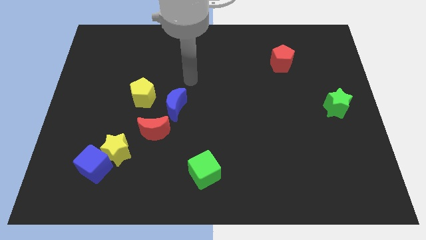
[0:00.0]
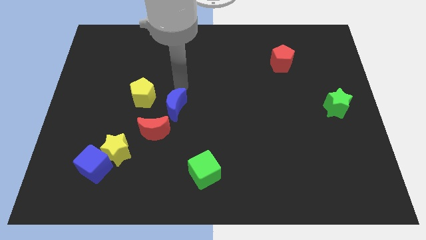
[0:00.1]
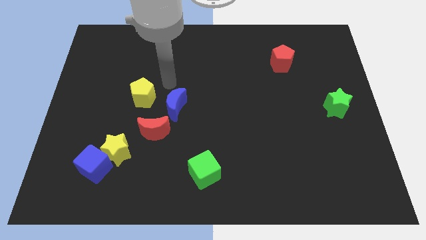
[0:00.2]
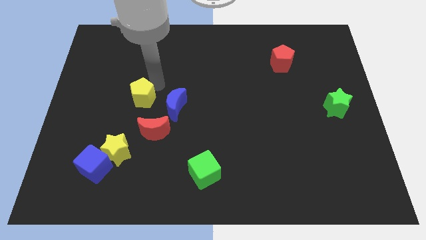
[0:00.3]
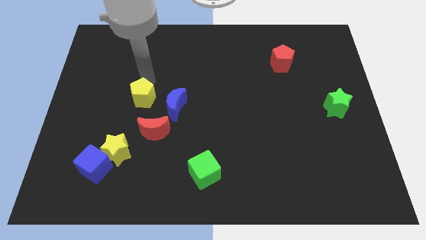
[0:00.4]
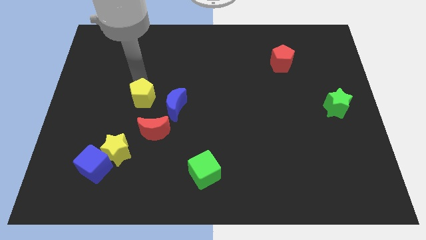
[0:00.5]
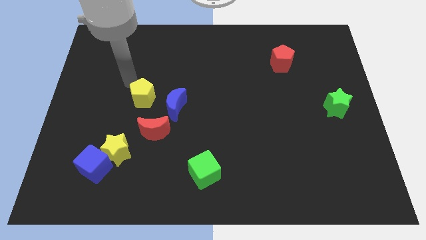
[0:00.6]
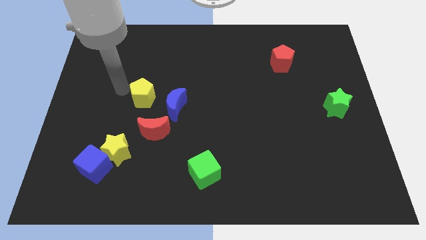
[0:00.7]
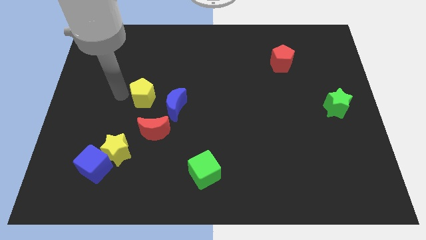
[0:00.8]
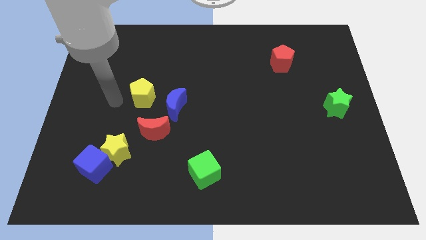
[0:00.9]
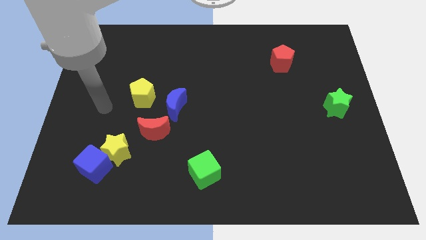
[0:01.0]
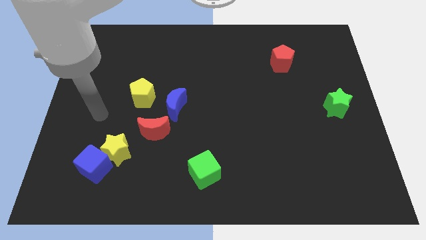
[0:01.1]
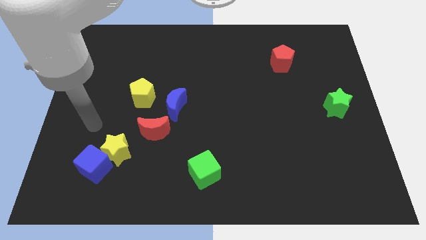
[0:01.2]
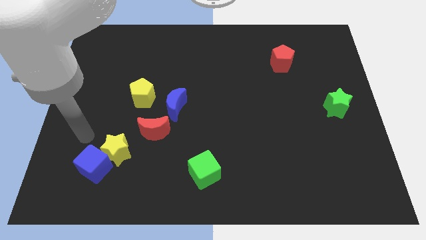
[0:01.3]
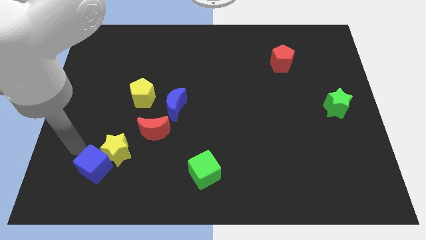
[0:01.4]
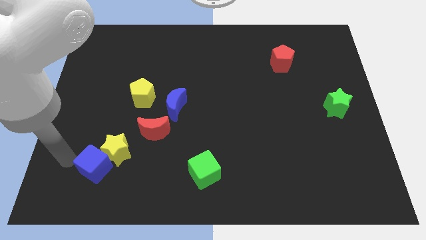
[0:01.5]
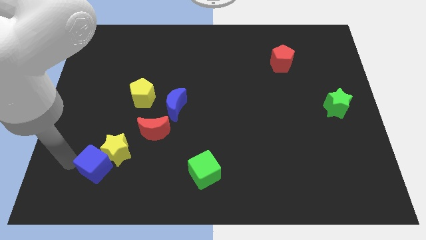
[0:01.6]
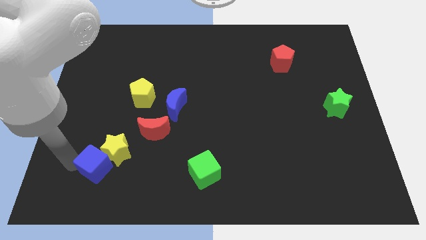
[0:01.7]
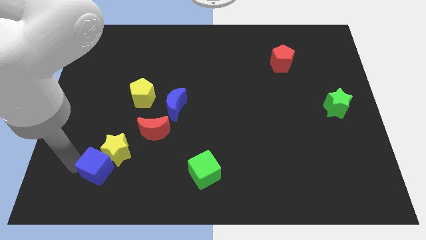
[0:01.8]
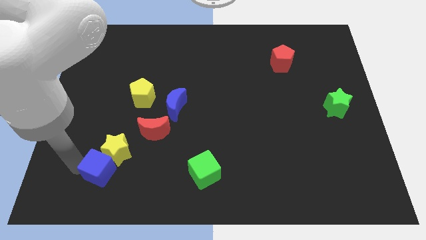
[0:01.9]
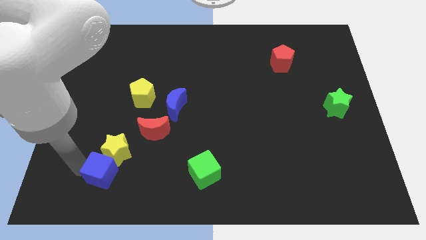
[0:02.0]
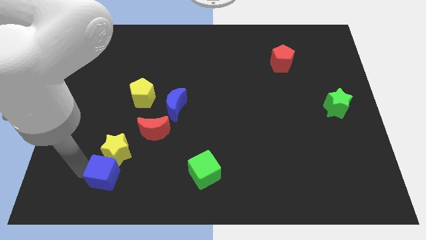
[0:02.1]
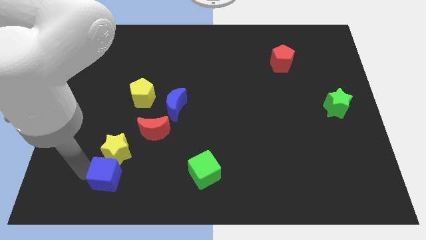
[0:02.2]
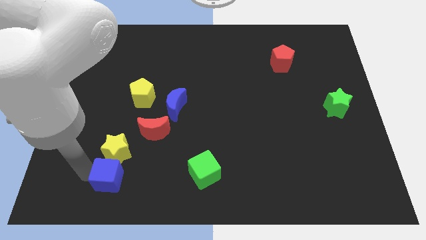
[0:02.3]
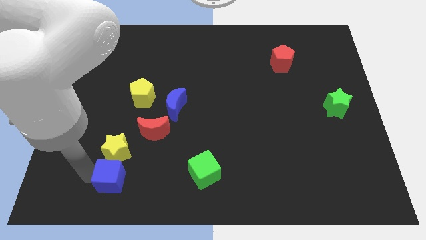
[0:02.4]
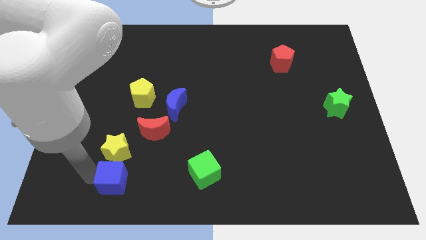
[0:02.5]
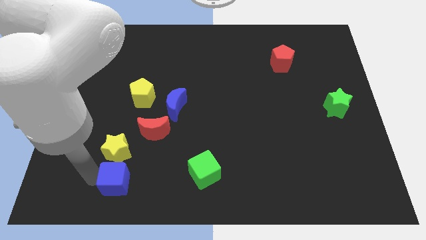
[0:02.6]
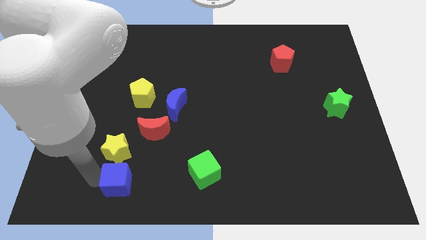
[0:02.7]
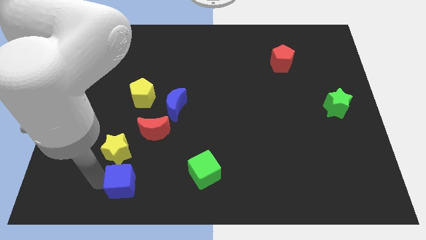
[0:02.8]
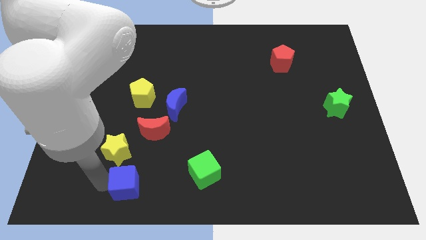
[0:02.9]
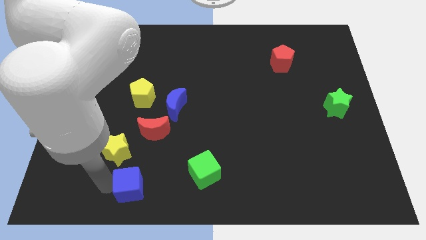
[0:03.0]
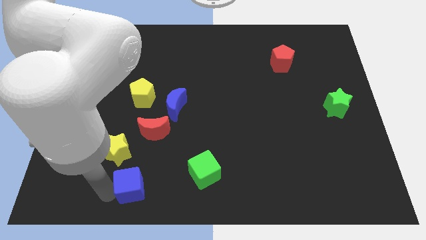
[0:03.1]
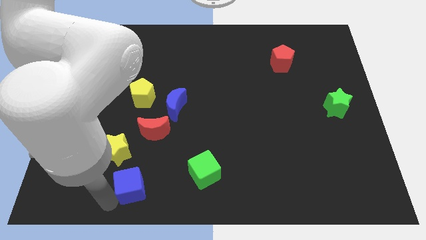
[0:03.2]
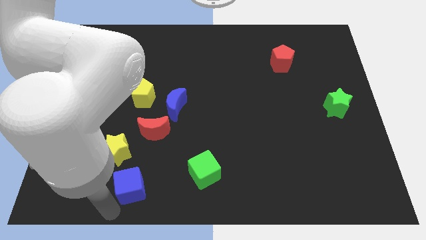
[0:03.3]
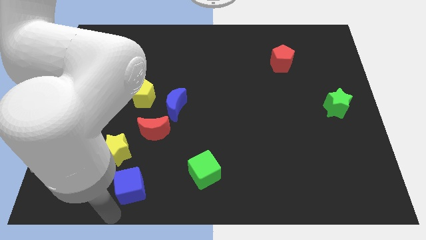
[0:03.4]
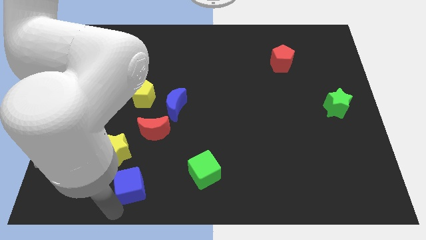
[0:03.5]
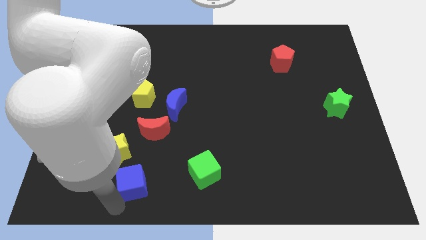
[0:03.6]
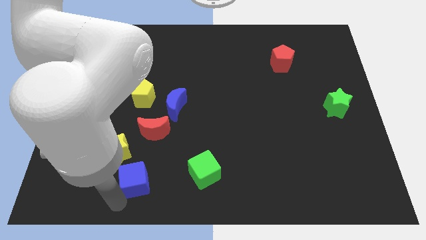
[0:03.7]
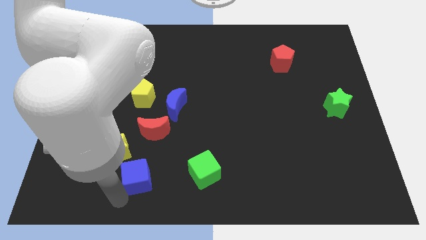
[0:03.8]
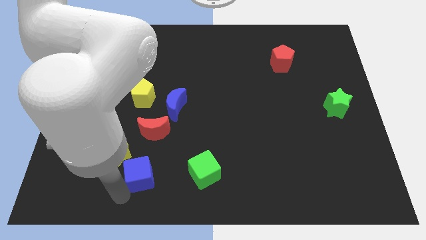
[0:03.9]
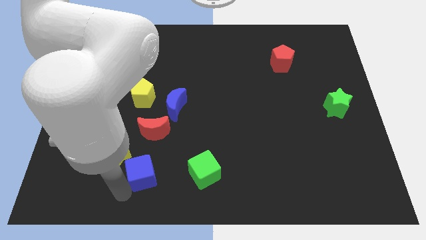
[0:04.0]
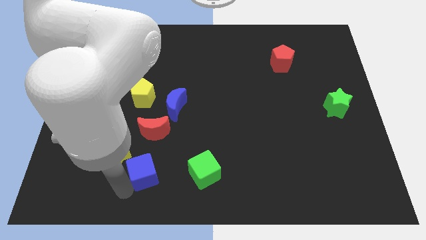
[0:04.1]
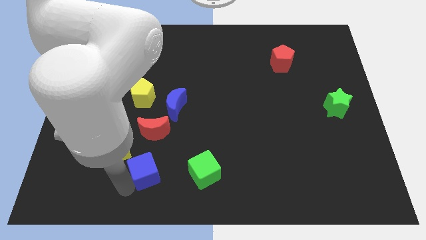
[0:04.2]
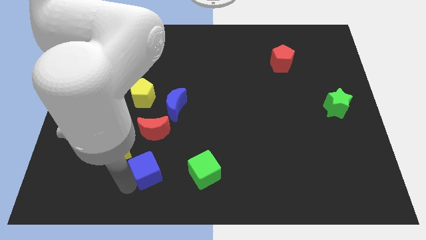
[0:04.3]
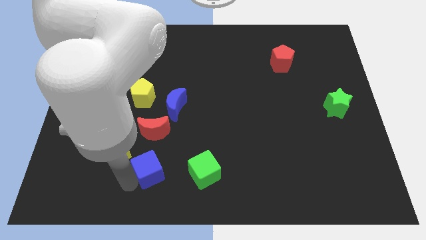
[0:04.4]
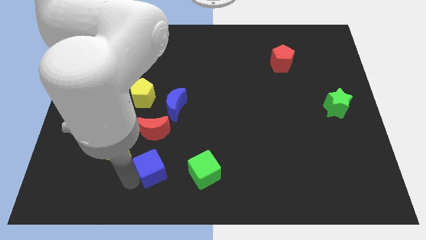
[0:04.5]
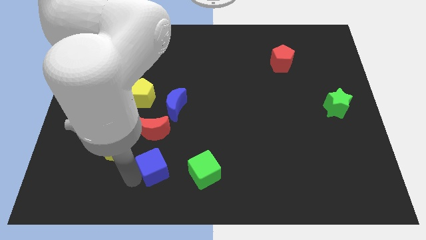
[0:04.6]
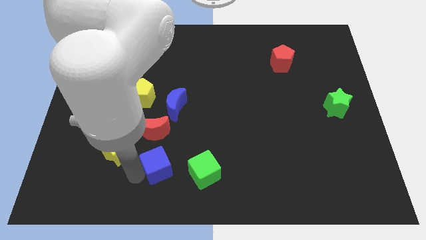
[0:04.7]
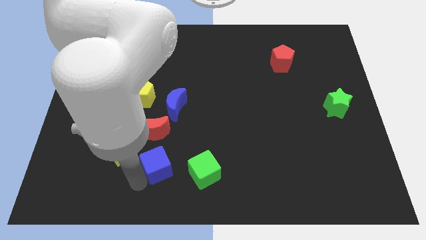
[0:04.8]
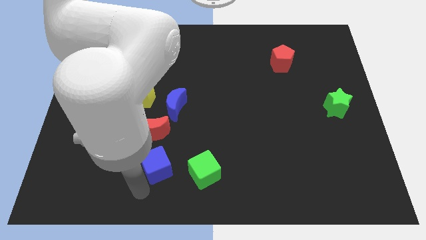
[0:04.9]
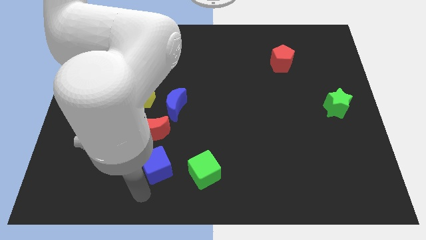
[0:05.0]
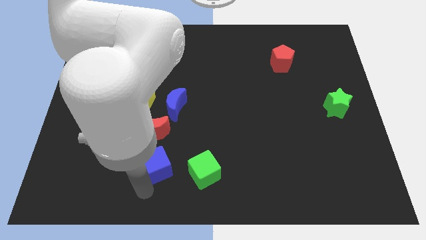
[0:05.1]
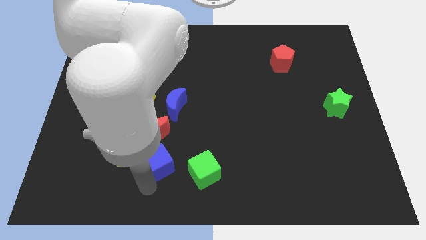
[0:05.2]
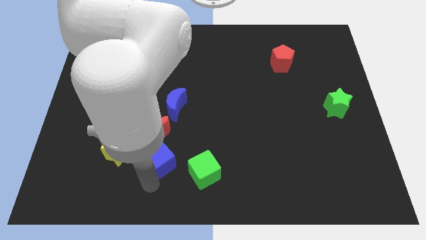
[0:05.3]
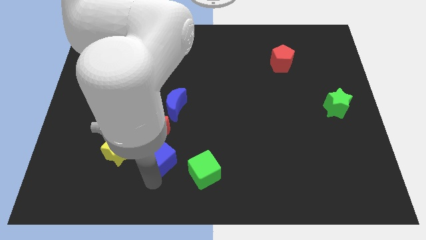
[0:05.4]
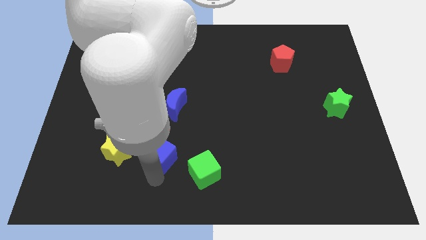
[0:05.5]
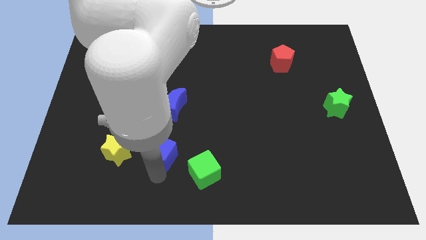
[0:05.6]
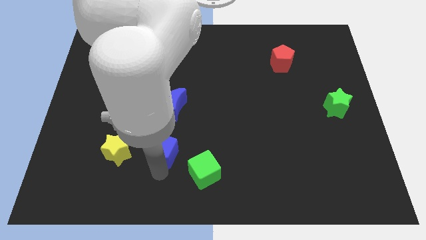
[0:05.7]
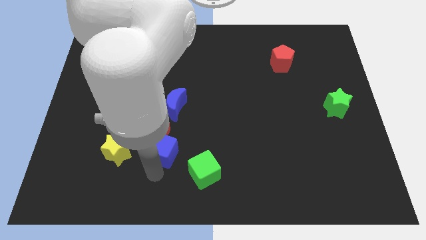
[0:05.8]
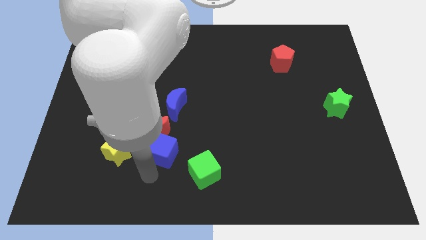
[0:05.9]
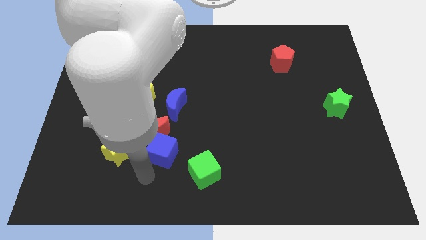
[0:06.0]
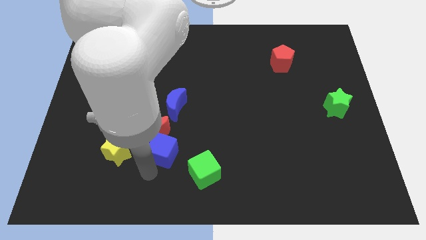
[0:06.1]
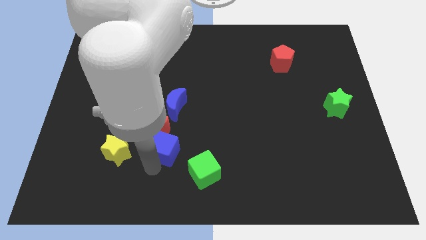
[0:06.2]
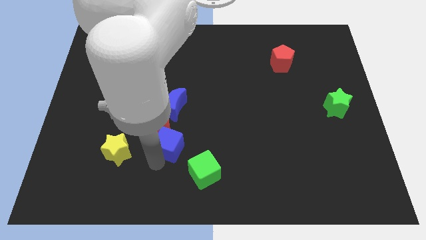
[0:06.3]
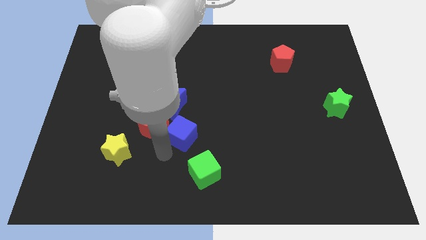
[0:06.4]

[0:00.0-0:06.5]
slide the blue cube to the center

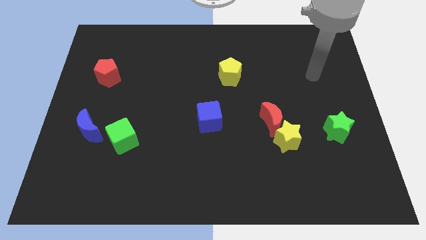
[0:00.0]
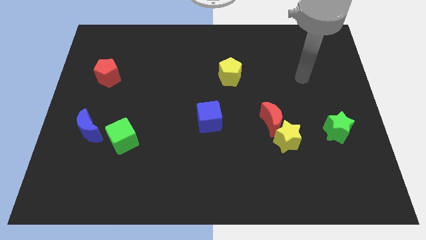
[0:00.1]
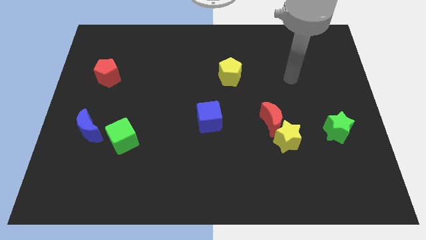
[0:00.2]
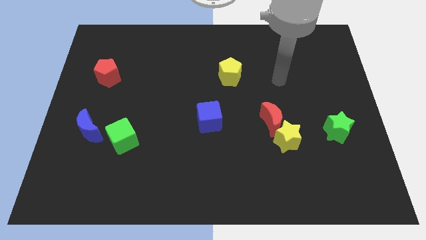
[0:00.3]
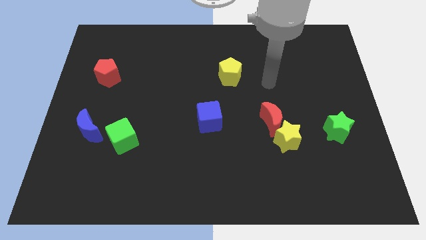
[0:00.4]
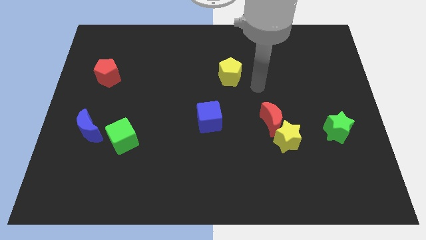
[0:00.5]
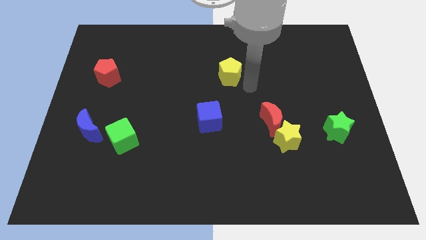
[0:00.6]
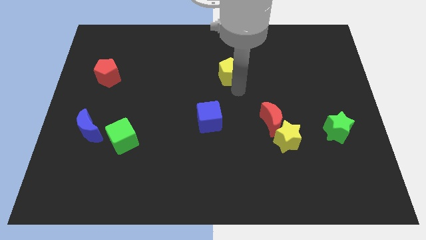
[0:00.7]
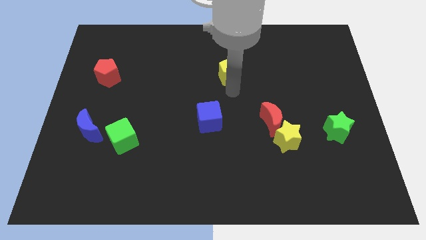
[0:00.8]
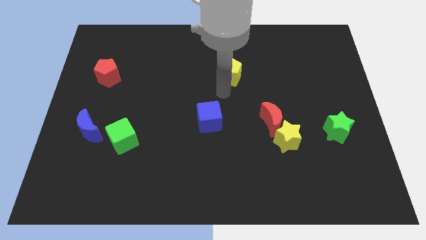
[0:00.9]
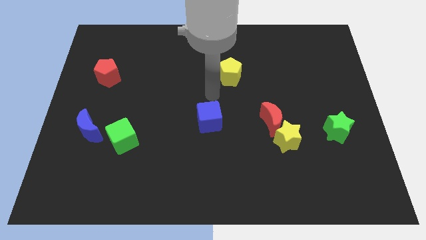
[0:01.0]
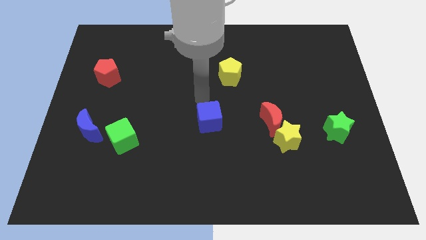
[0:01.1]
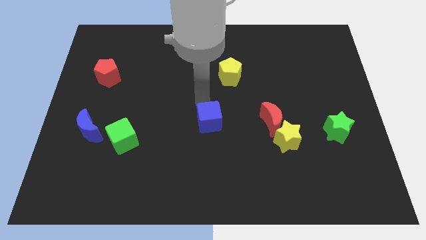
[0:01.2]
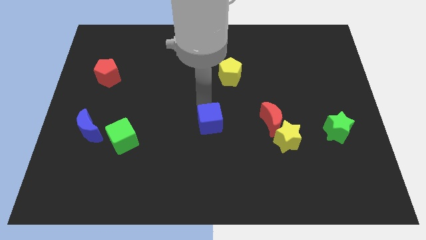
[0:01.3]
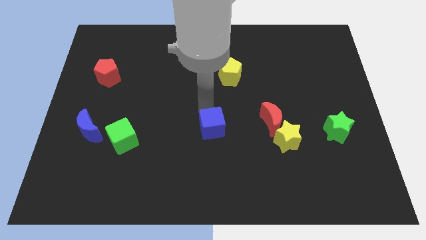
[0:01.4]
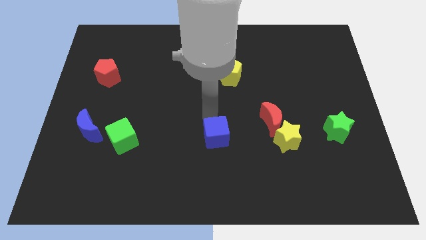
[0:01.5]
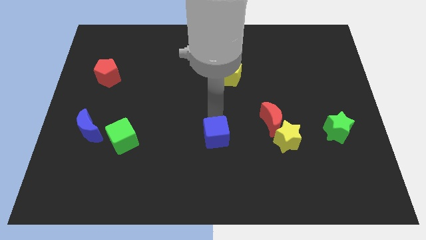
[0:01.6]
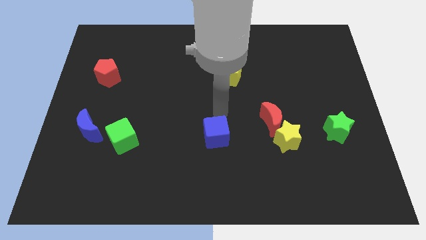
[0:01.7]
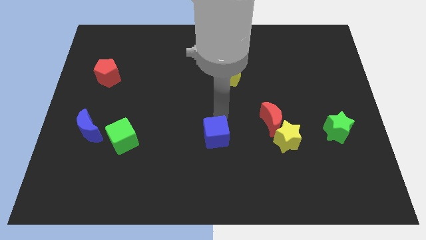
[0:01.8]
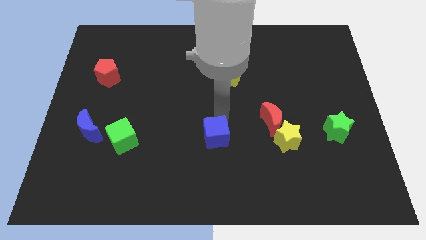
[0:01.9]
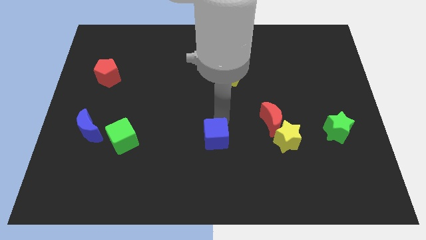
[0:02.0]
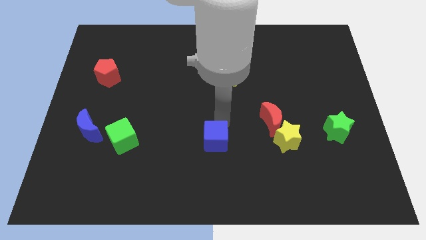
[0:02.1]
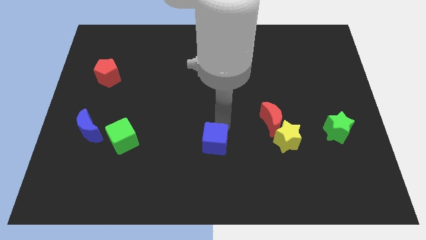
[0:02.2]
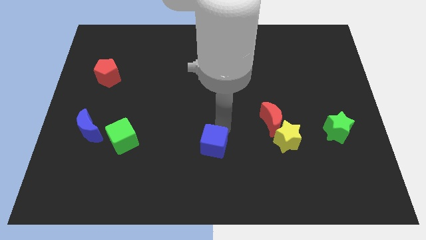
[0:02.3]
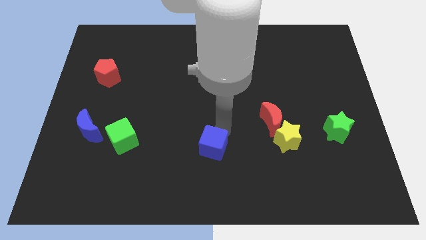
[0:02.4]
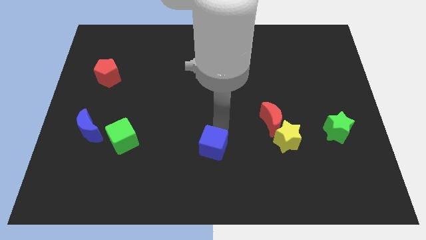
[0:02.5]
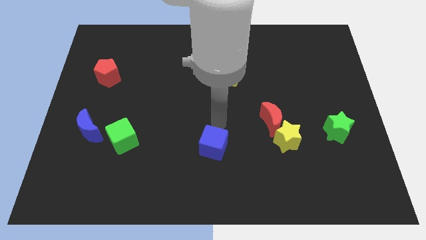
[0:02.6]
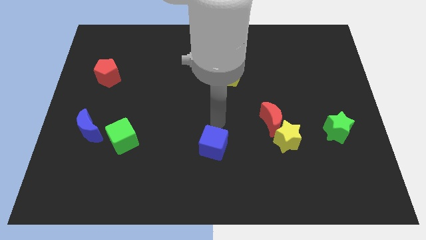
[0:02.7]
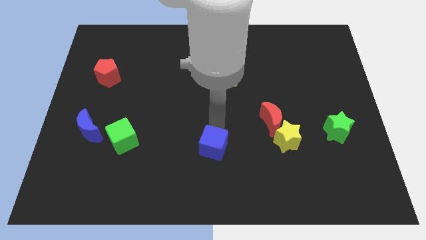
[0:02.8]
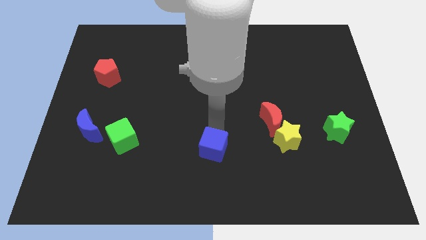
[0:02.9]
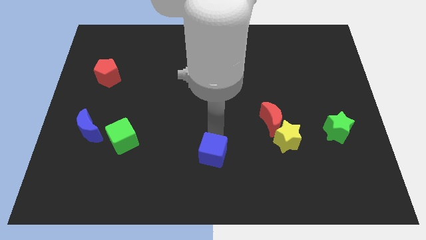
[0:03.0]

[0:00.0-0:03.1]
push the blue cube to the bottom side
